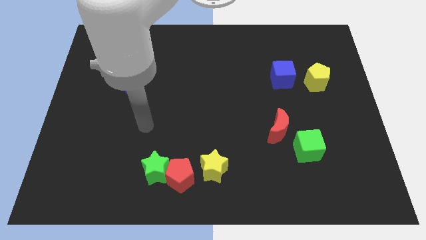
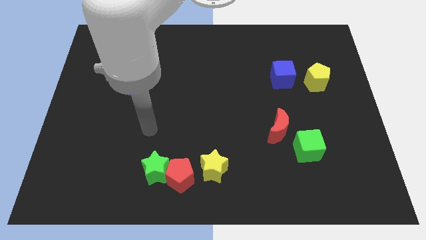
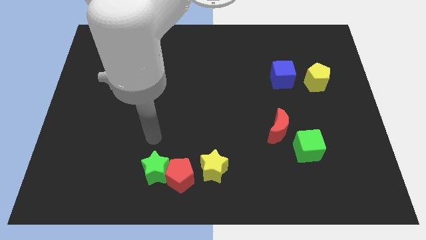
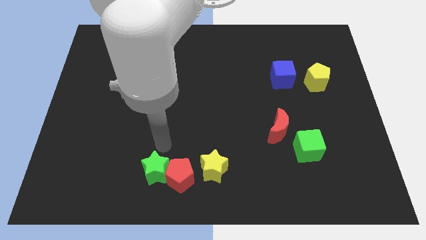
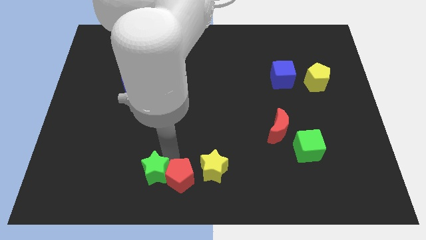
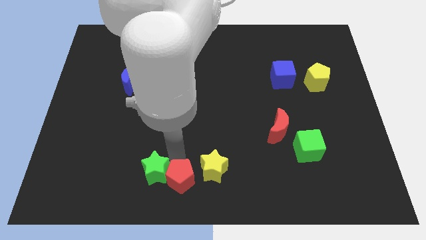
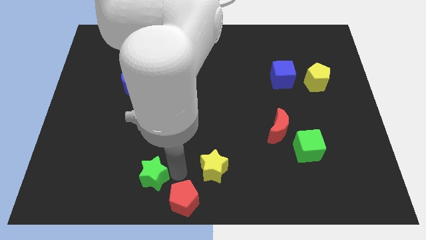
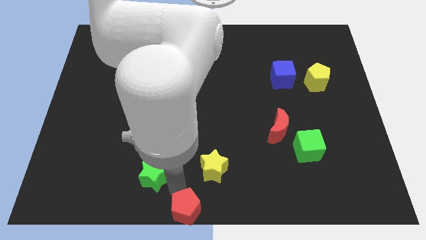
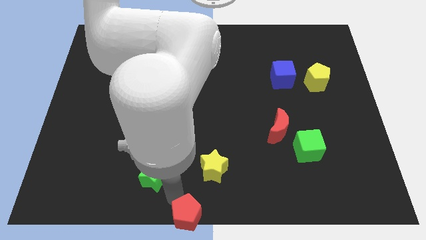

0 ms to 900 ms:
move the green star away from the red pentagon

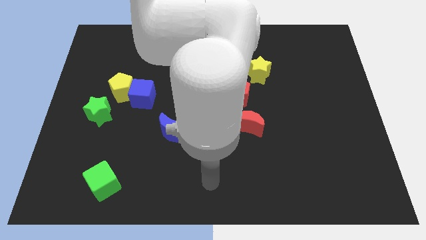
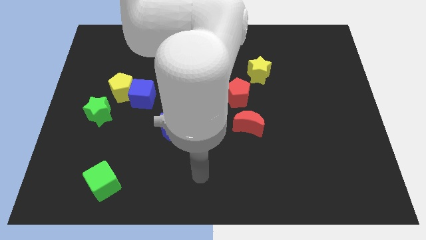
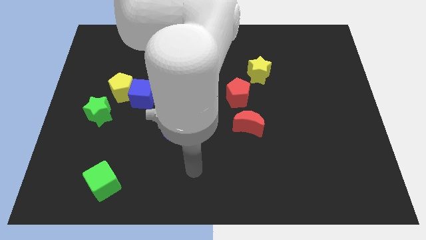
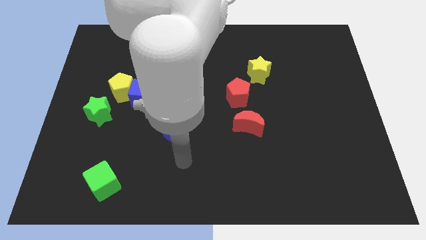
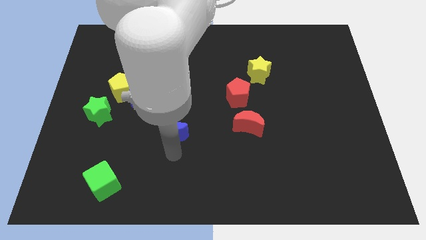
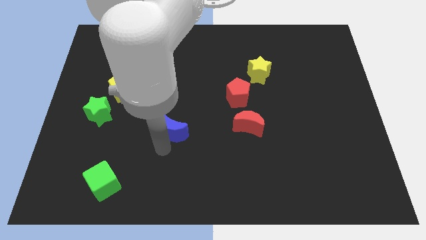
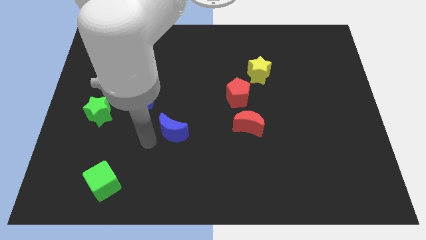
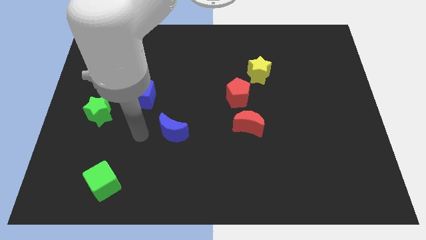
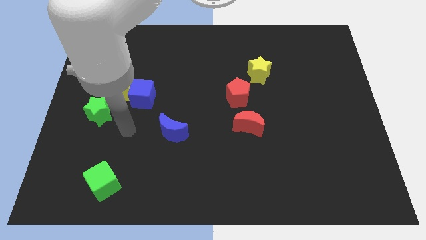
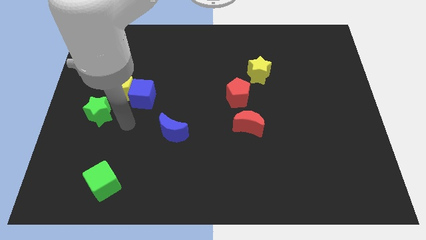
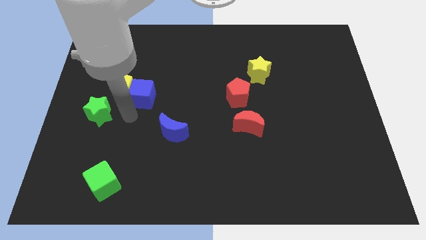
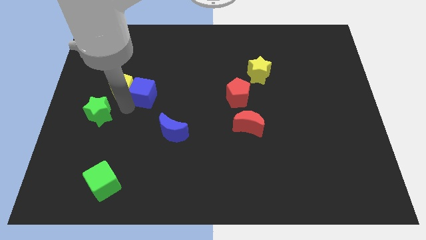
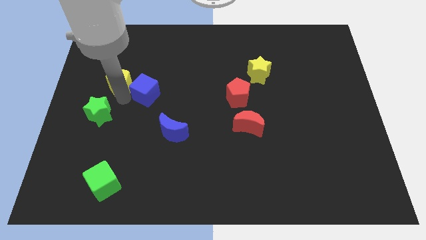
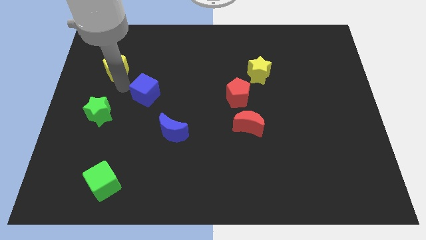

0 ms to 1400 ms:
separate the blue cube from the yellow pentagon

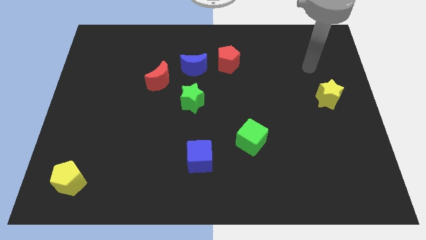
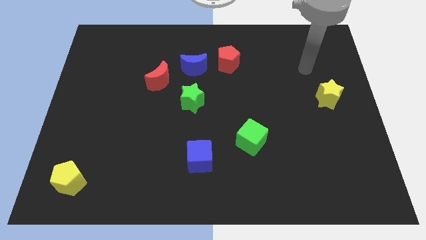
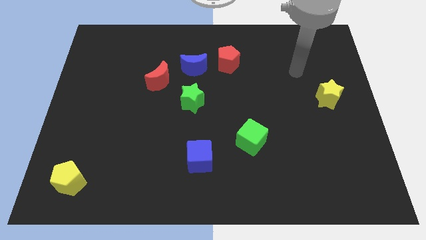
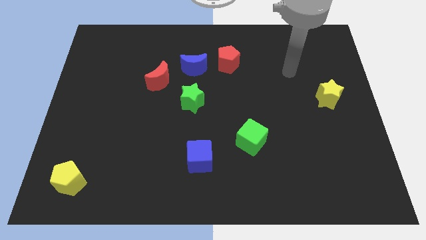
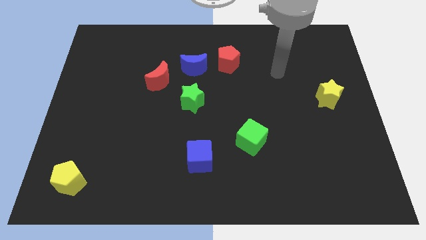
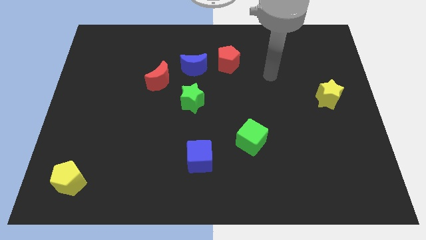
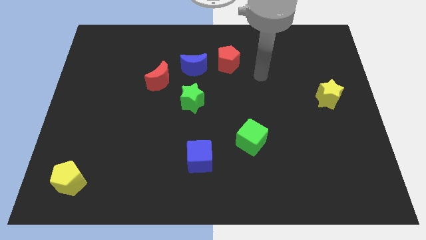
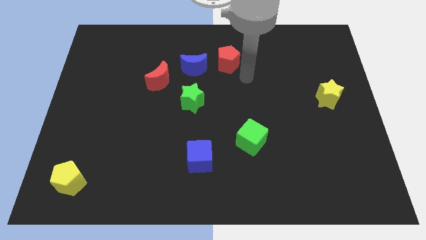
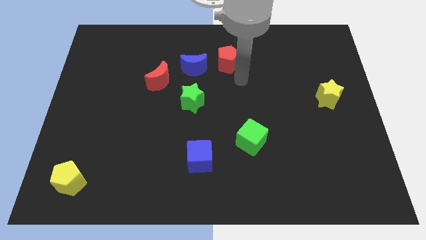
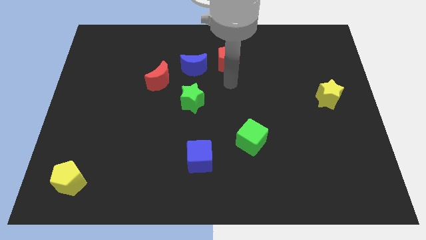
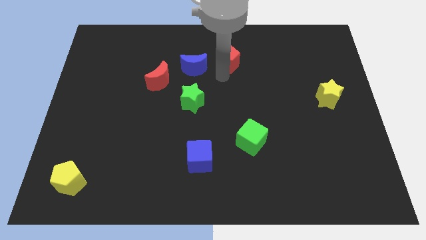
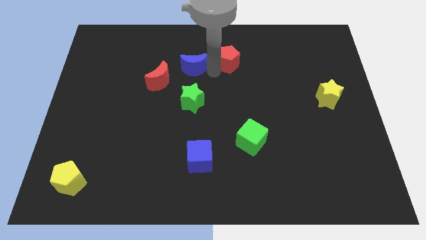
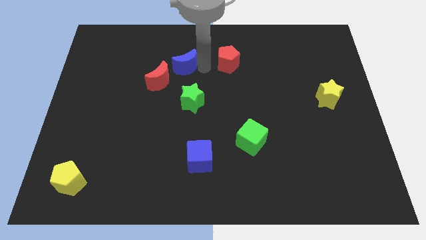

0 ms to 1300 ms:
separate the red pentagon from the blue moon

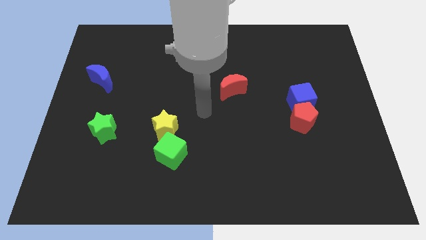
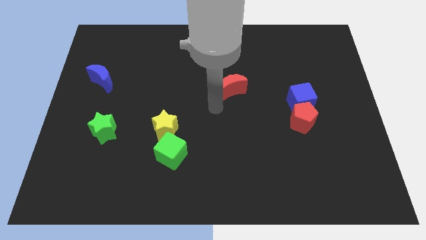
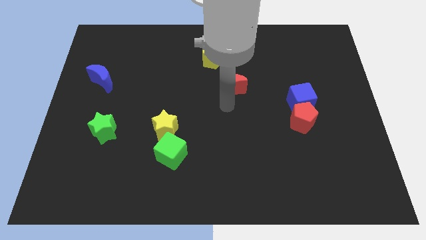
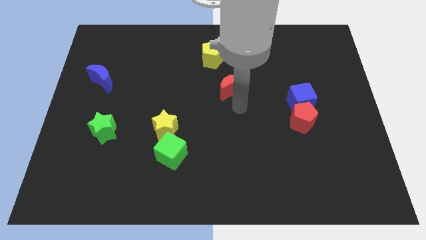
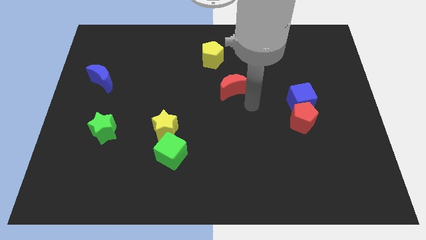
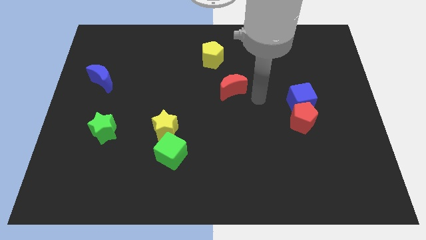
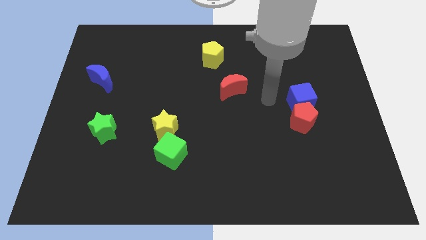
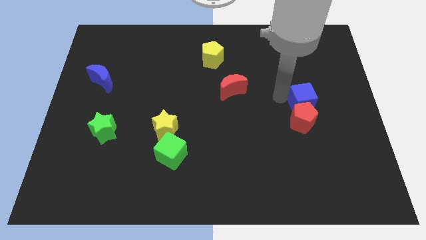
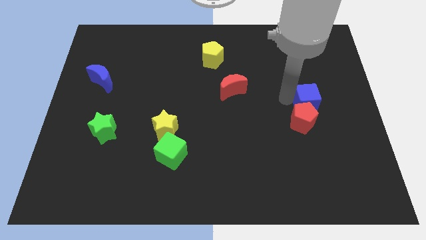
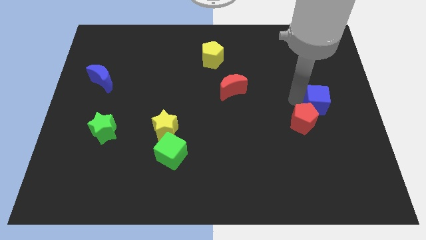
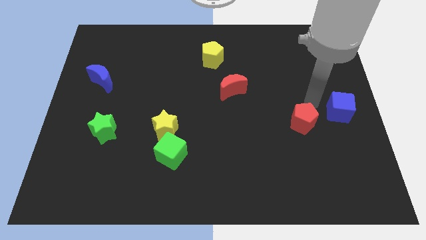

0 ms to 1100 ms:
pull the red pentagon apart from the blue cube

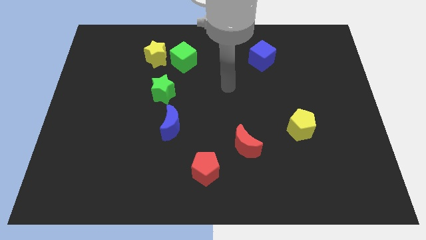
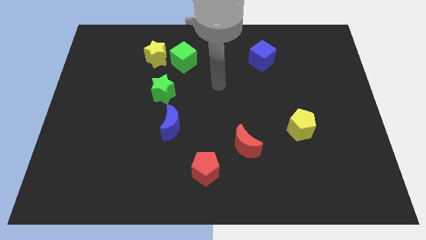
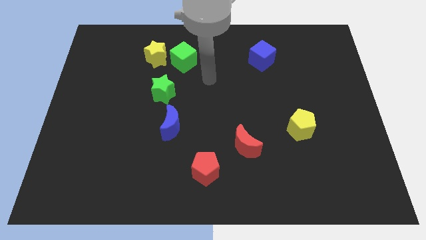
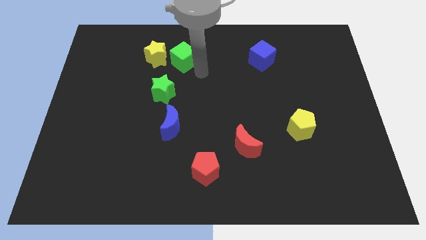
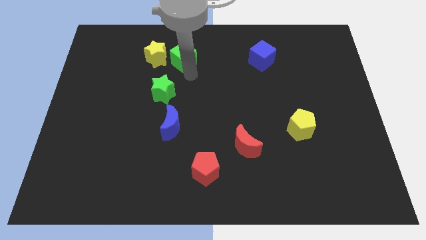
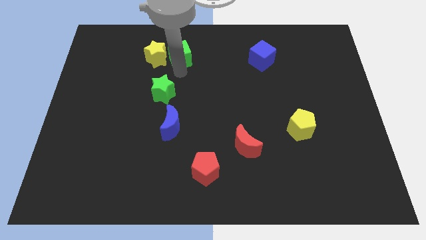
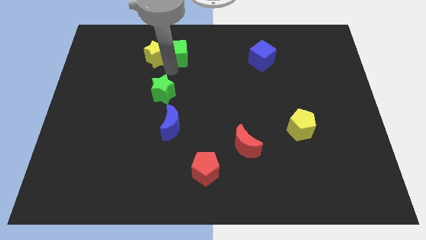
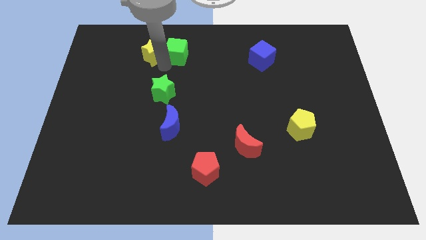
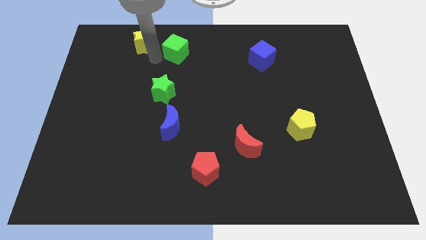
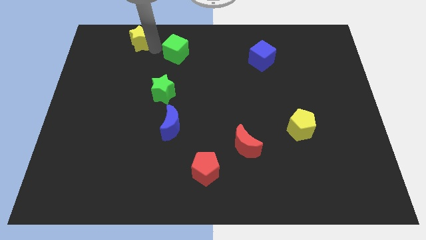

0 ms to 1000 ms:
separate the green cube from the yellow star

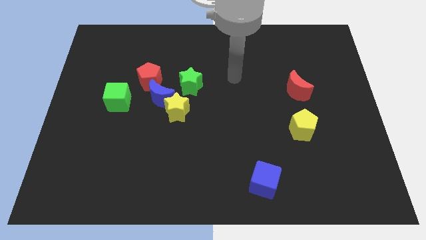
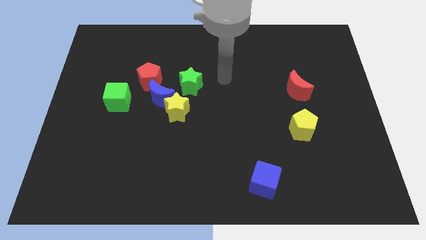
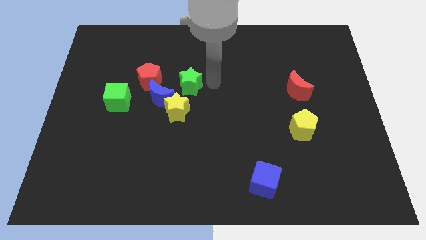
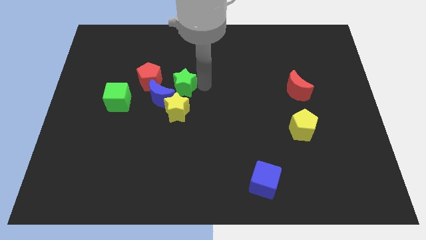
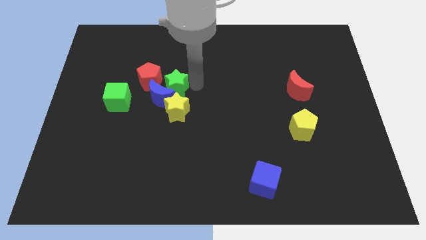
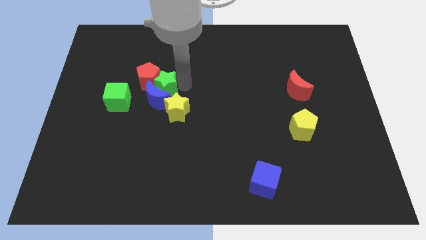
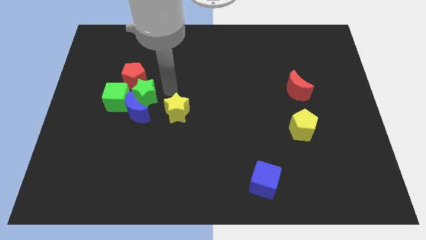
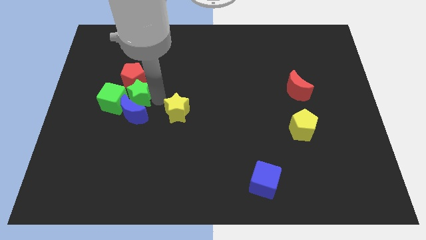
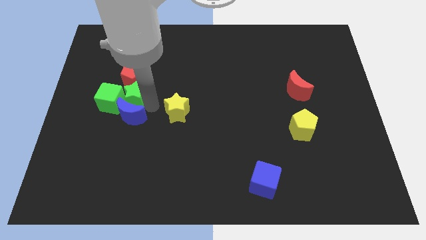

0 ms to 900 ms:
pull the yellow star apart from the blue moon and green star

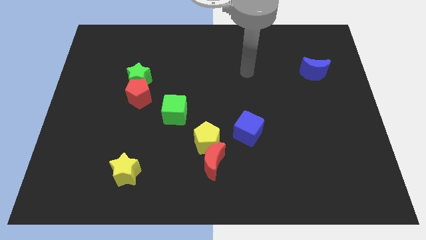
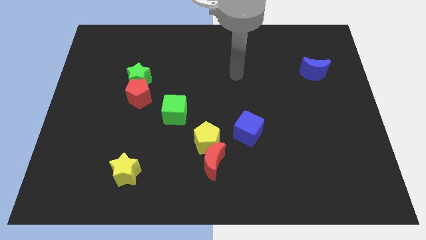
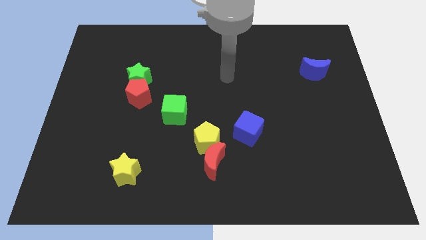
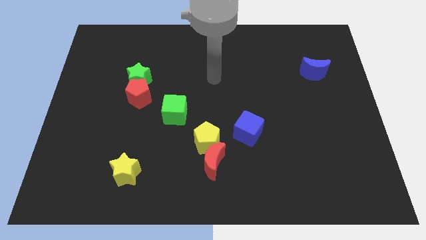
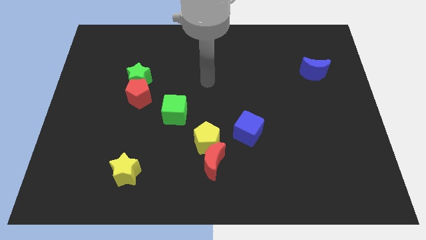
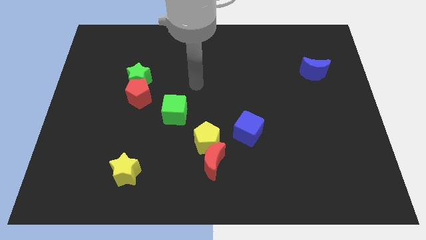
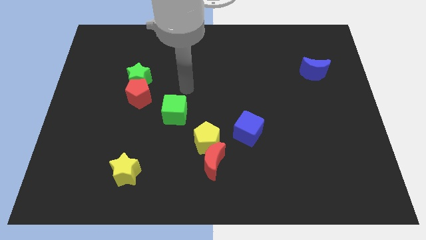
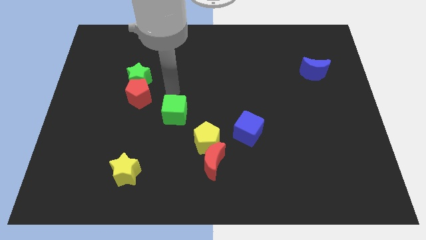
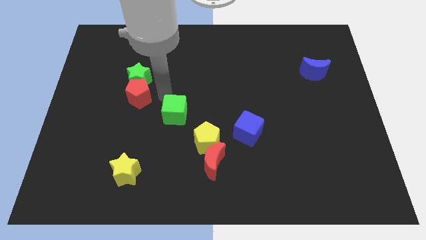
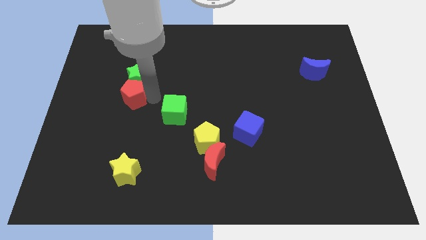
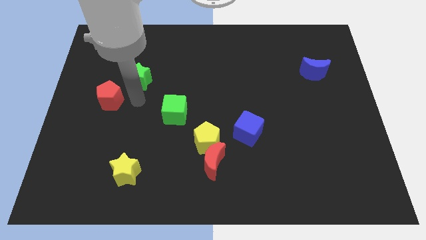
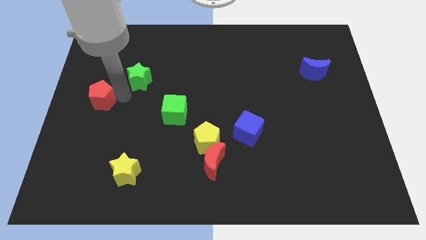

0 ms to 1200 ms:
pull the green star apart from the red pentagon

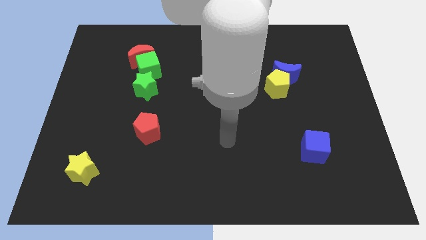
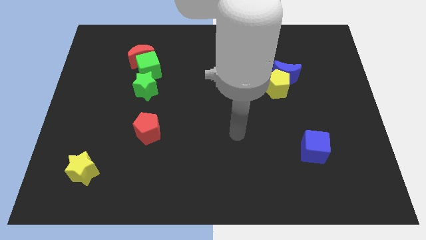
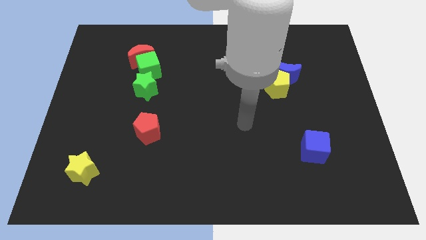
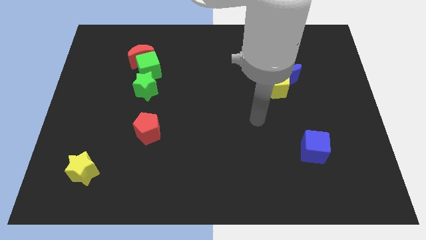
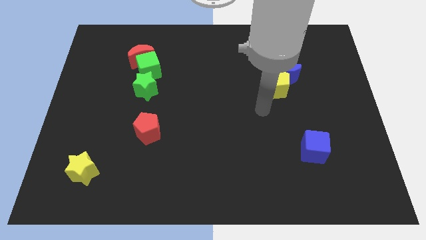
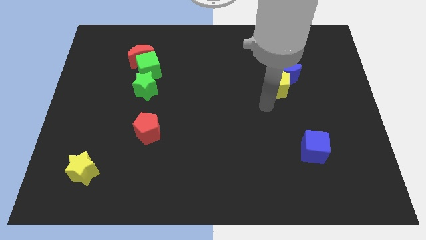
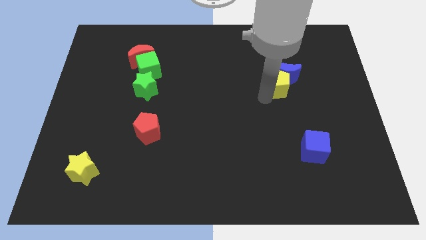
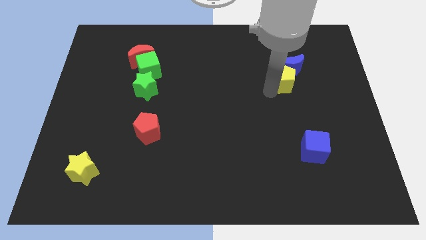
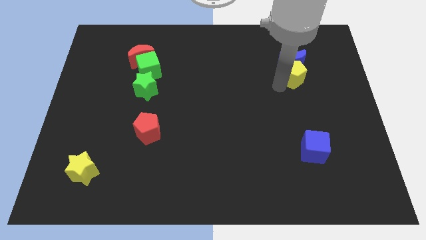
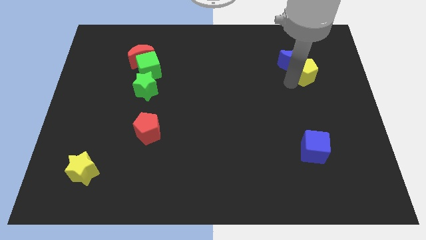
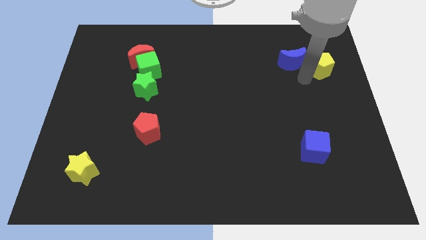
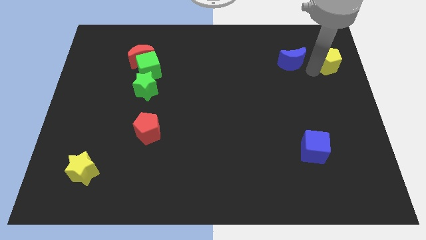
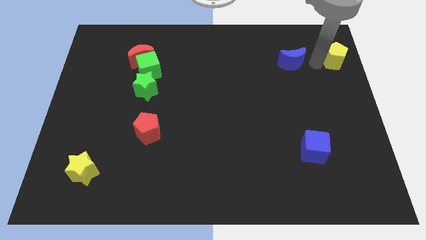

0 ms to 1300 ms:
separate the blue moon from the yellow pentagon

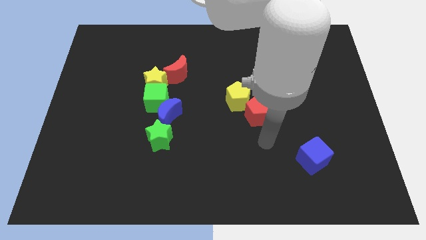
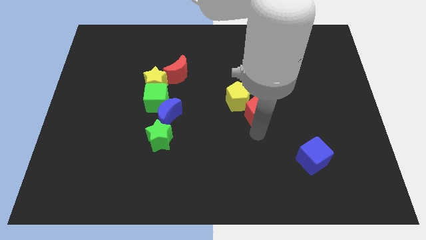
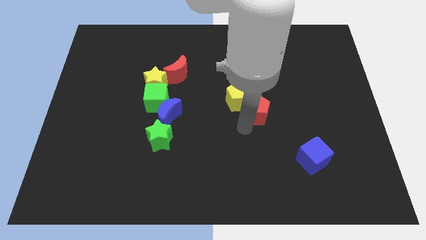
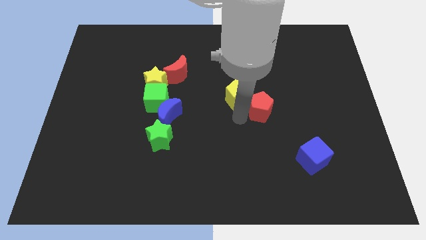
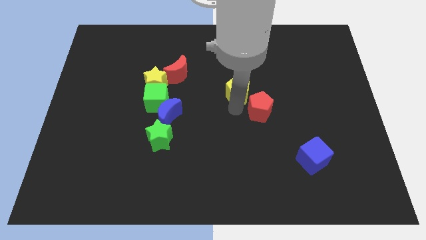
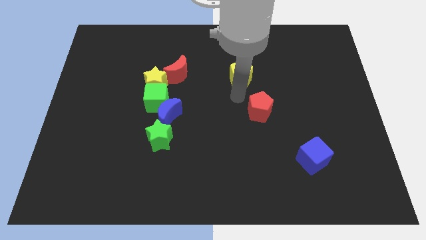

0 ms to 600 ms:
move the red pentagon away from the yellow pentagon
